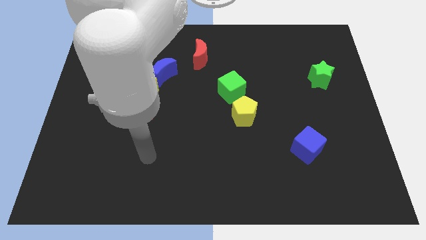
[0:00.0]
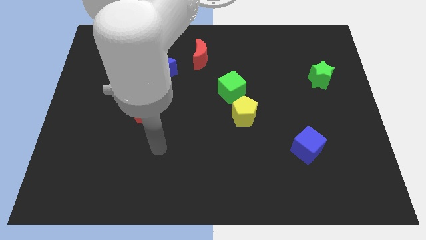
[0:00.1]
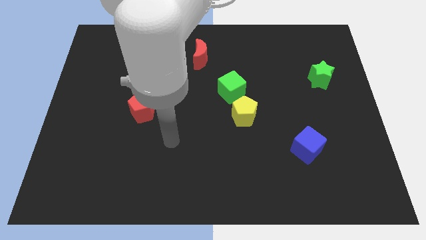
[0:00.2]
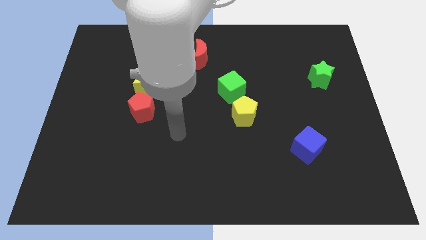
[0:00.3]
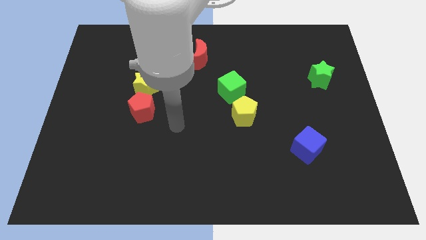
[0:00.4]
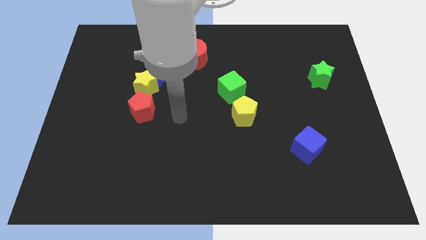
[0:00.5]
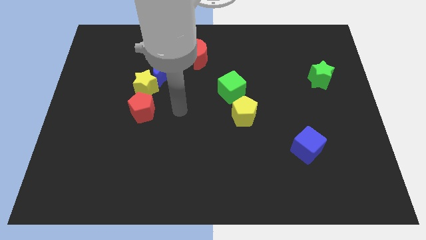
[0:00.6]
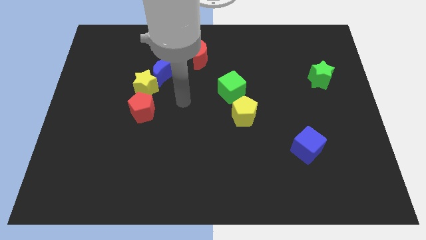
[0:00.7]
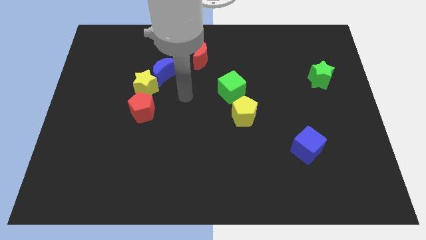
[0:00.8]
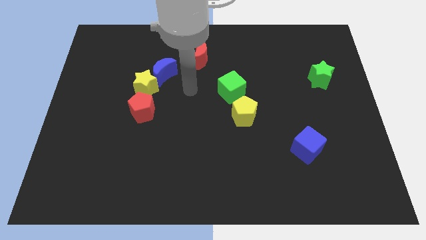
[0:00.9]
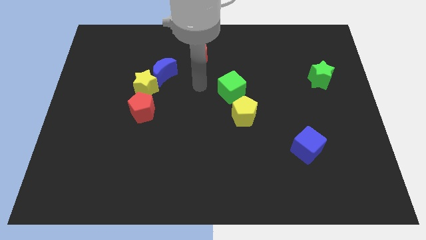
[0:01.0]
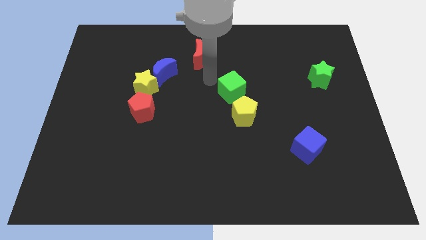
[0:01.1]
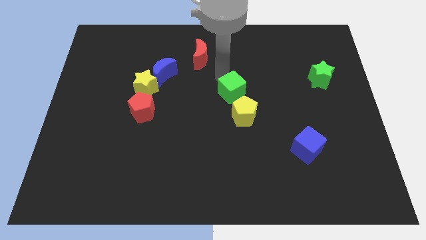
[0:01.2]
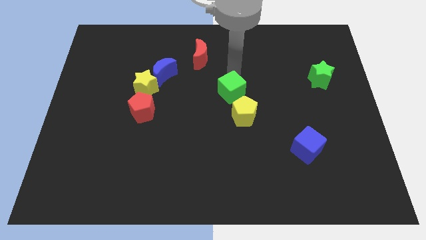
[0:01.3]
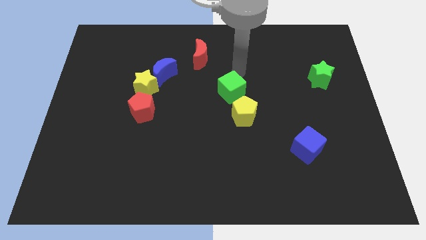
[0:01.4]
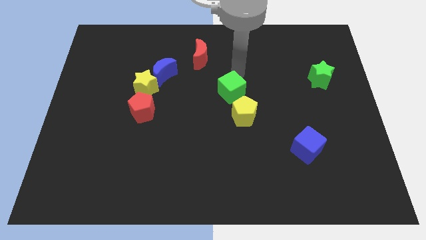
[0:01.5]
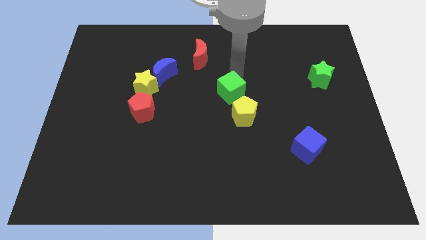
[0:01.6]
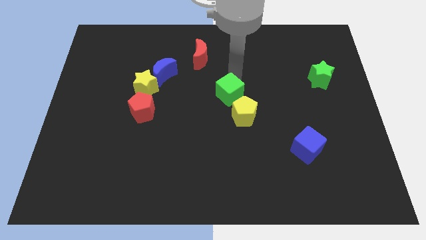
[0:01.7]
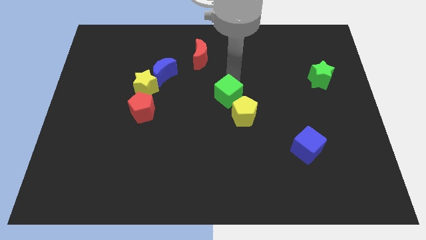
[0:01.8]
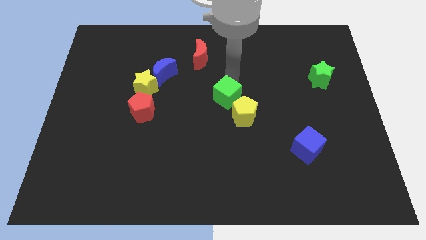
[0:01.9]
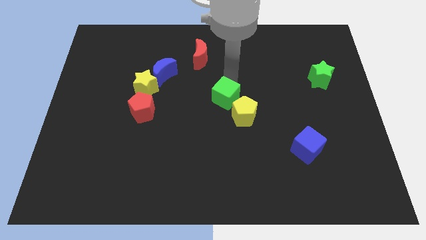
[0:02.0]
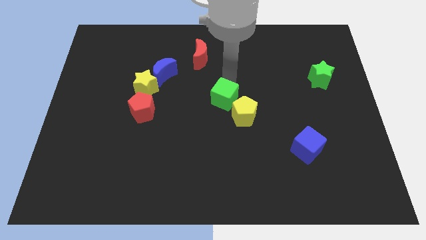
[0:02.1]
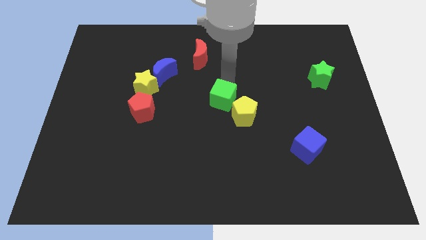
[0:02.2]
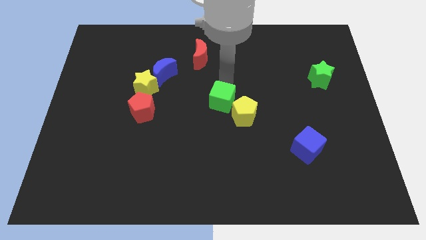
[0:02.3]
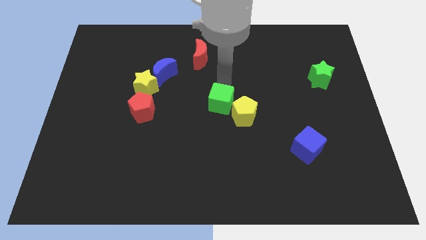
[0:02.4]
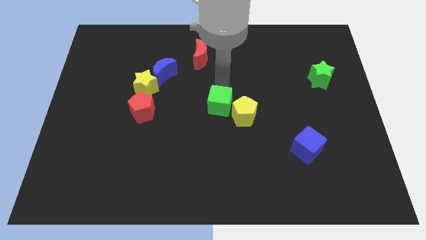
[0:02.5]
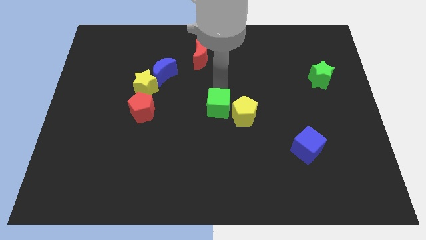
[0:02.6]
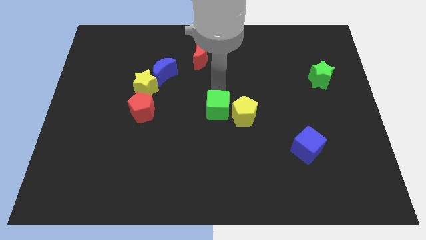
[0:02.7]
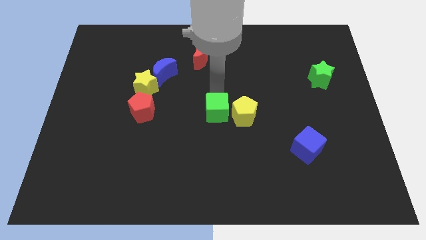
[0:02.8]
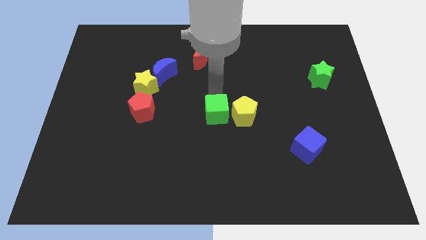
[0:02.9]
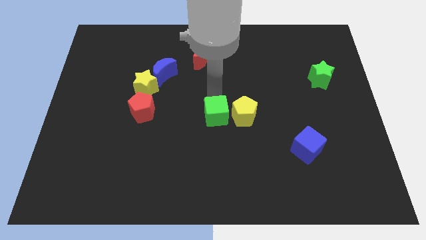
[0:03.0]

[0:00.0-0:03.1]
slide the green cube downwards a bit

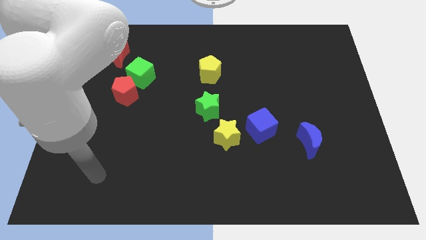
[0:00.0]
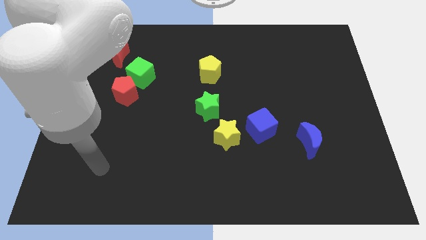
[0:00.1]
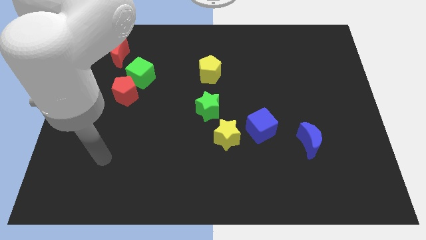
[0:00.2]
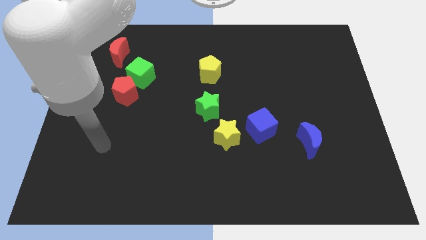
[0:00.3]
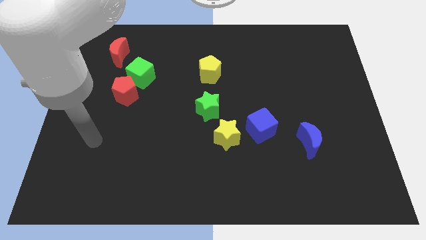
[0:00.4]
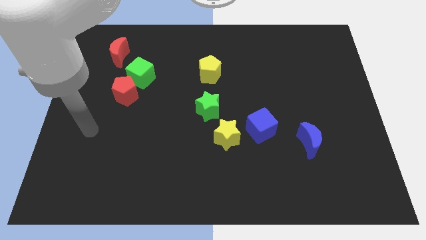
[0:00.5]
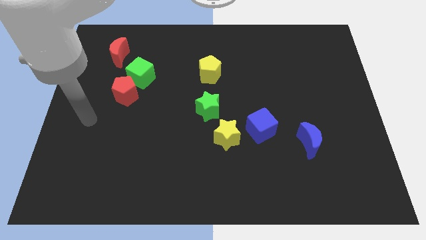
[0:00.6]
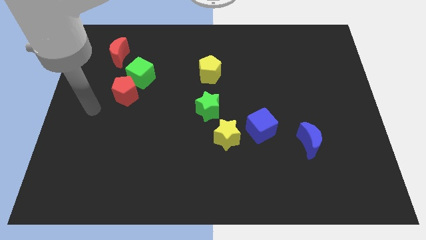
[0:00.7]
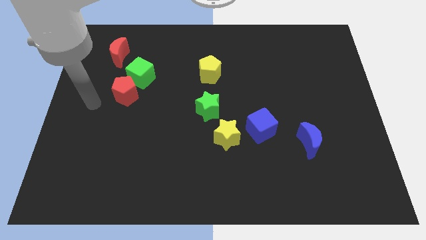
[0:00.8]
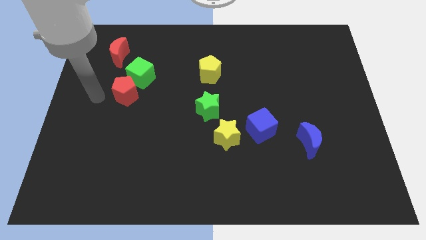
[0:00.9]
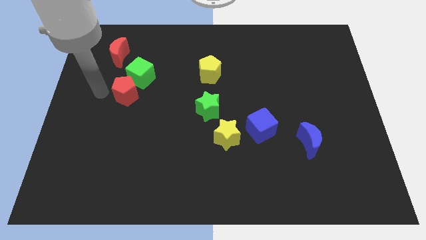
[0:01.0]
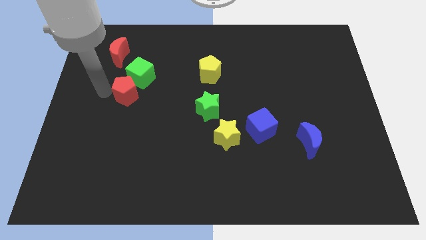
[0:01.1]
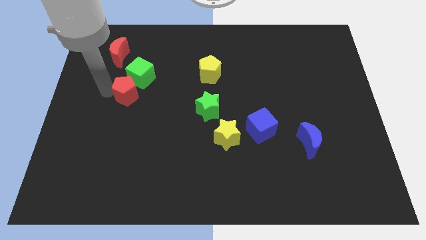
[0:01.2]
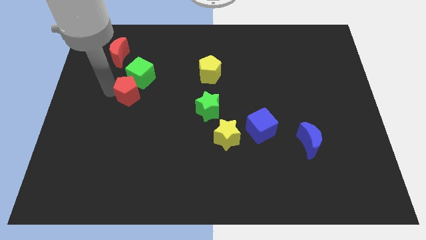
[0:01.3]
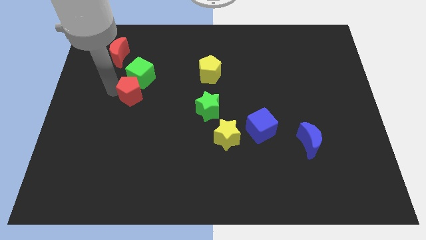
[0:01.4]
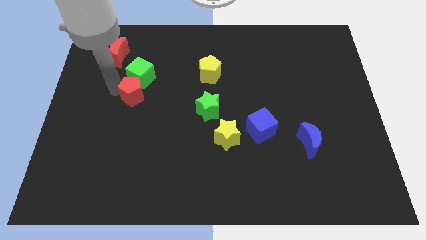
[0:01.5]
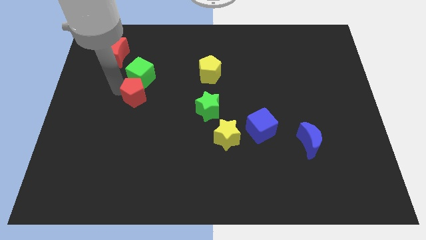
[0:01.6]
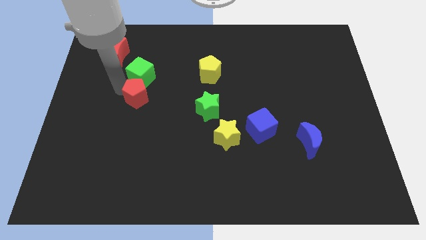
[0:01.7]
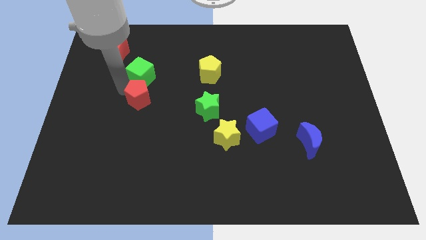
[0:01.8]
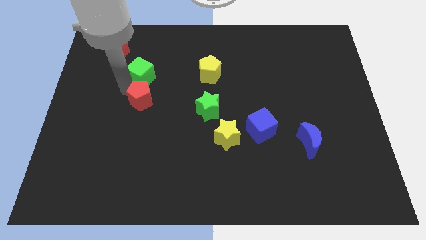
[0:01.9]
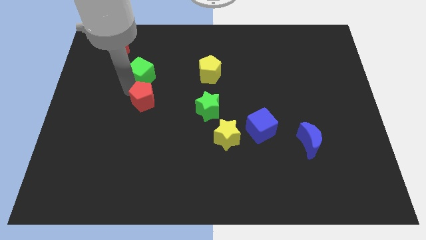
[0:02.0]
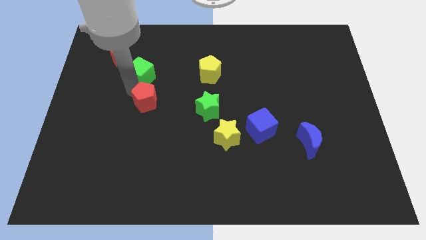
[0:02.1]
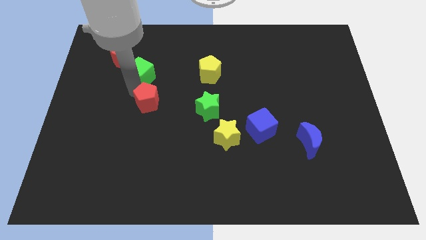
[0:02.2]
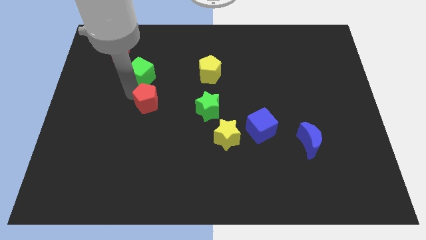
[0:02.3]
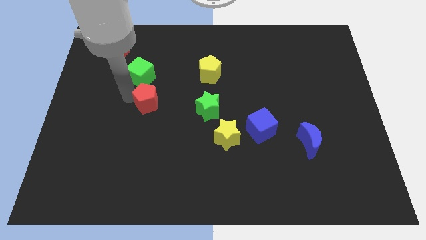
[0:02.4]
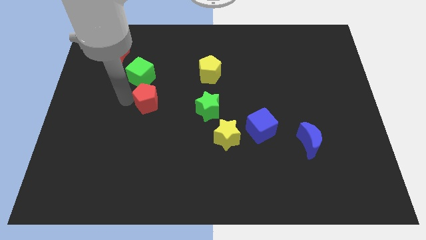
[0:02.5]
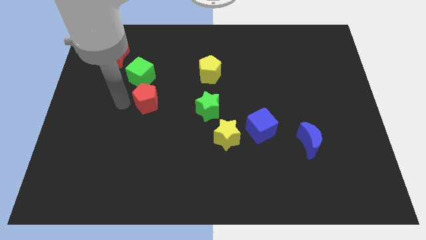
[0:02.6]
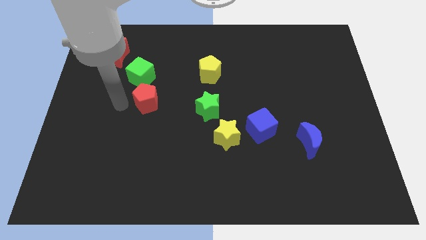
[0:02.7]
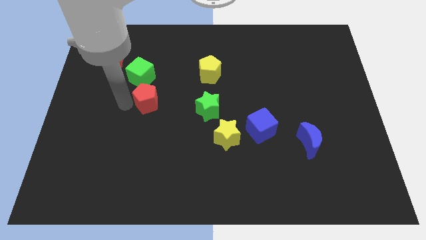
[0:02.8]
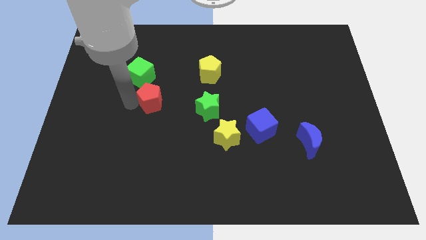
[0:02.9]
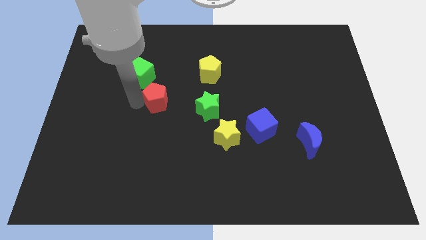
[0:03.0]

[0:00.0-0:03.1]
move the red pentagon right slightly

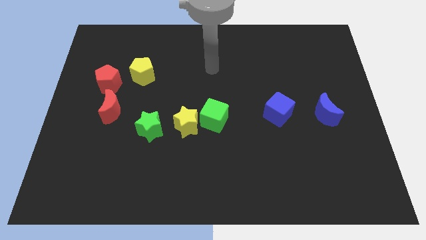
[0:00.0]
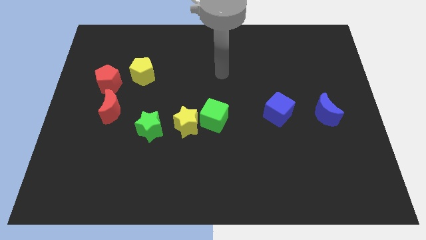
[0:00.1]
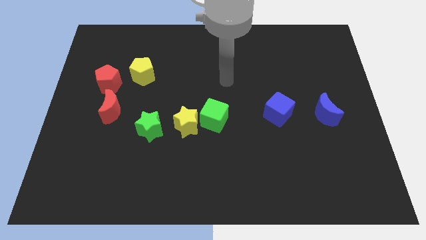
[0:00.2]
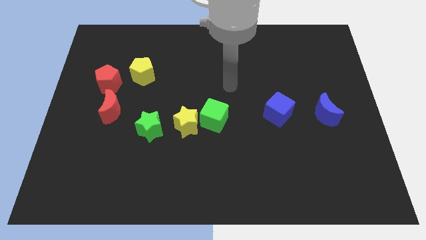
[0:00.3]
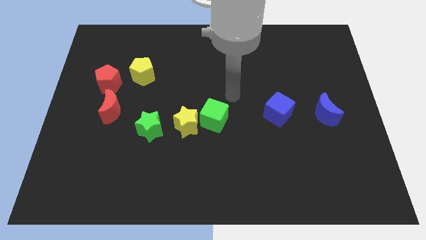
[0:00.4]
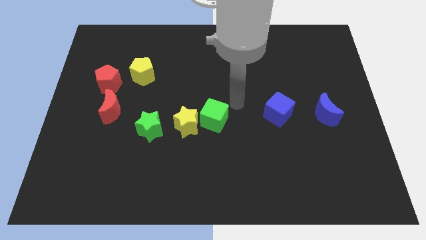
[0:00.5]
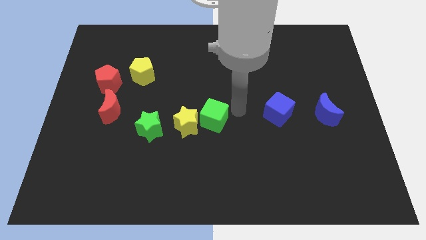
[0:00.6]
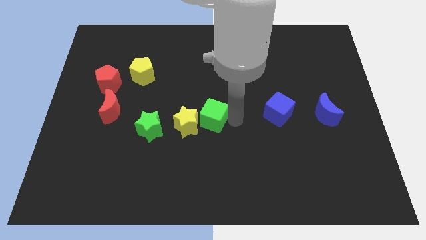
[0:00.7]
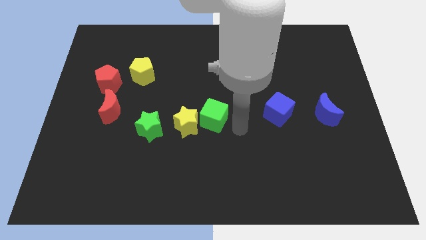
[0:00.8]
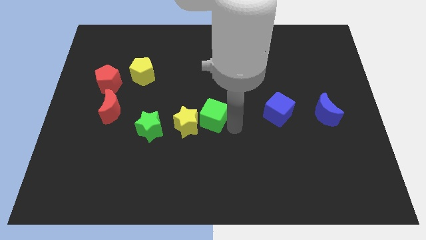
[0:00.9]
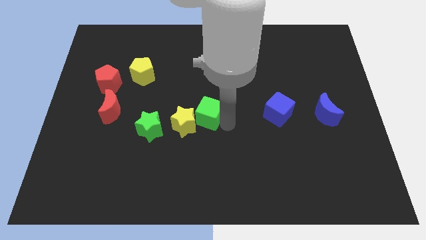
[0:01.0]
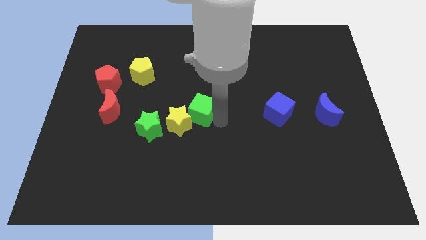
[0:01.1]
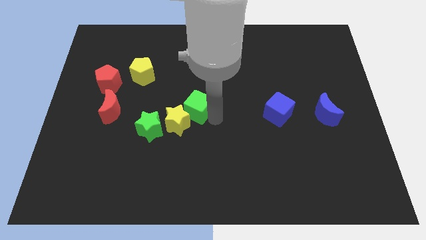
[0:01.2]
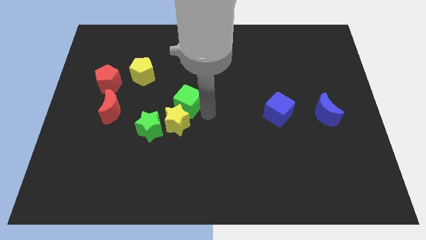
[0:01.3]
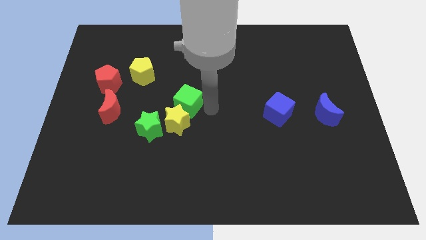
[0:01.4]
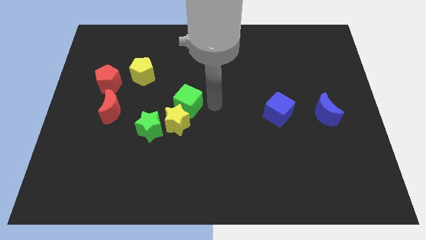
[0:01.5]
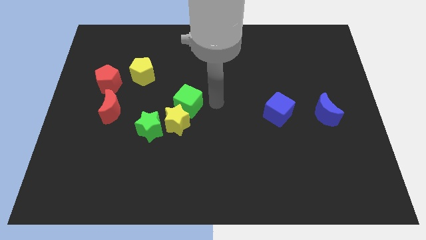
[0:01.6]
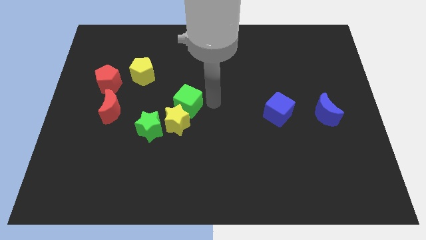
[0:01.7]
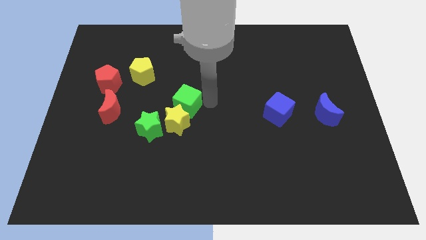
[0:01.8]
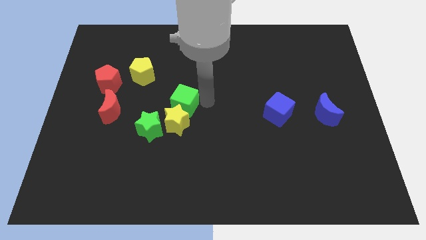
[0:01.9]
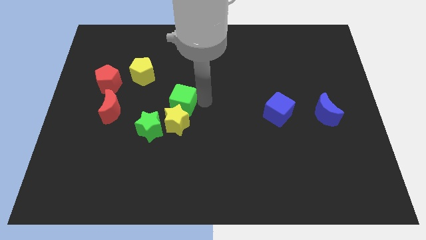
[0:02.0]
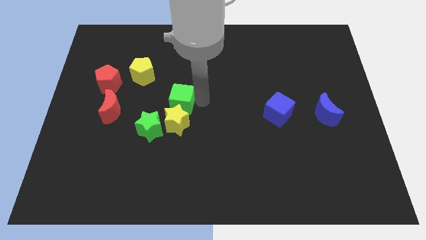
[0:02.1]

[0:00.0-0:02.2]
move the green cube somewhat to the left
